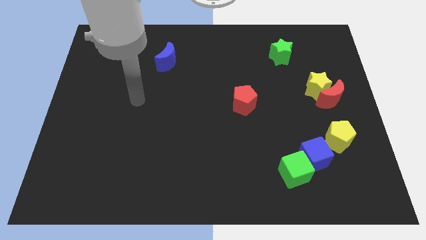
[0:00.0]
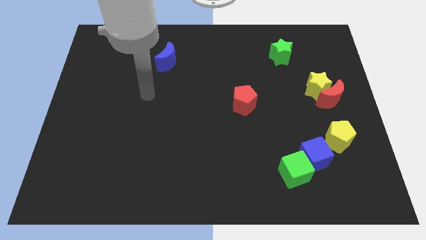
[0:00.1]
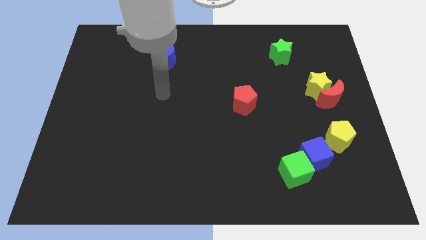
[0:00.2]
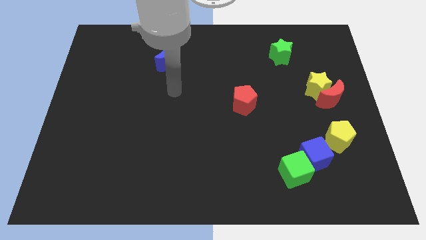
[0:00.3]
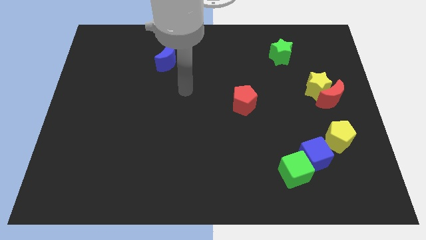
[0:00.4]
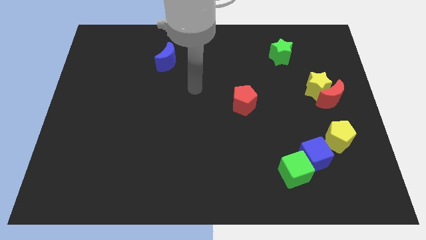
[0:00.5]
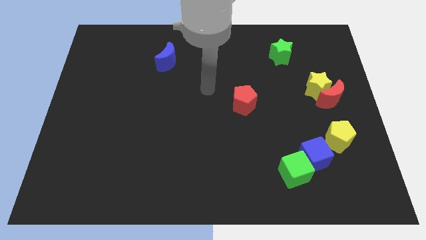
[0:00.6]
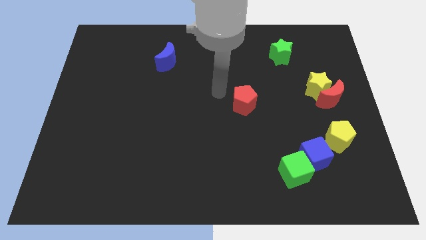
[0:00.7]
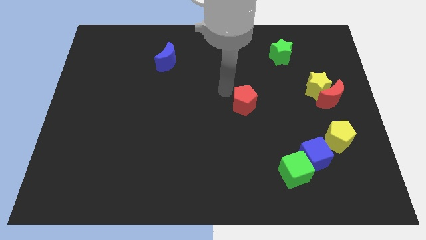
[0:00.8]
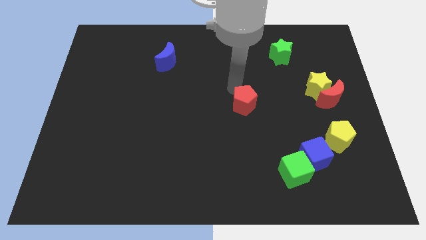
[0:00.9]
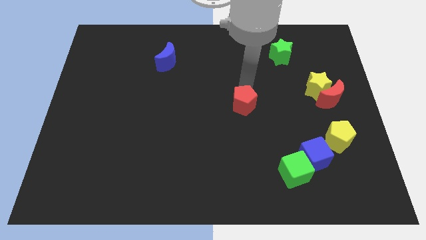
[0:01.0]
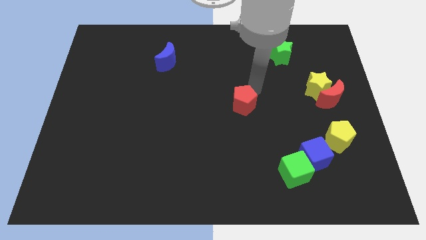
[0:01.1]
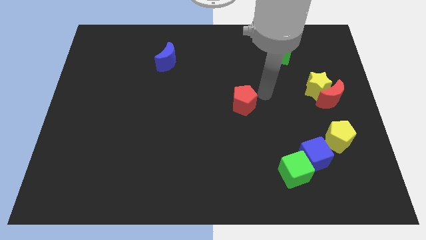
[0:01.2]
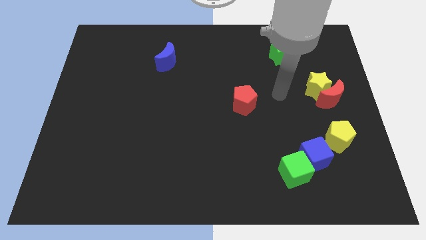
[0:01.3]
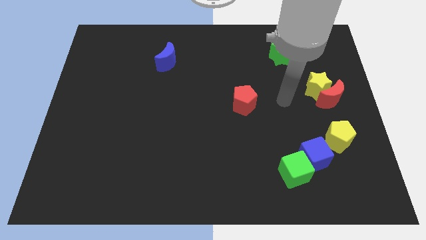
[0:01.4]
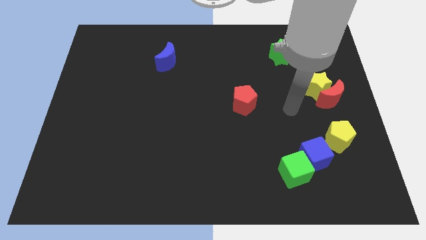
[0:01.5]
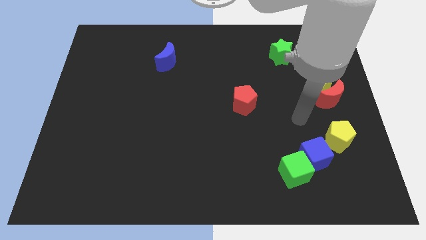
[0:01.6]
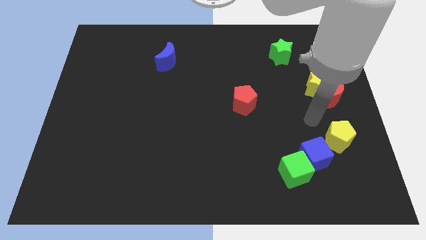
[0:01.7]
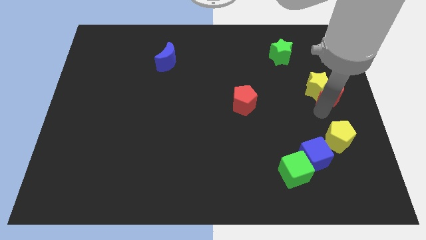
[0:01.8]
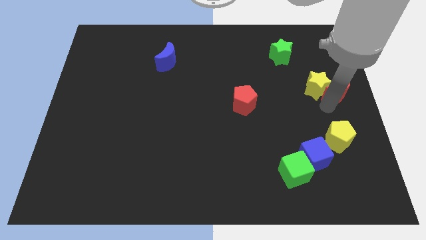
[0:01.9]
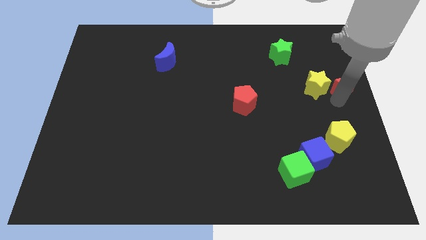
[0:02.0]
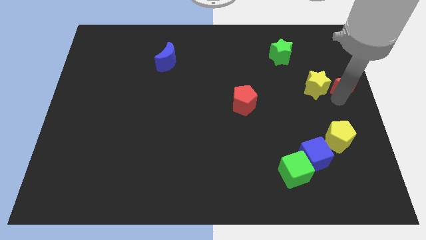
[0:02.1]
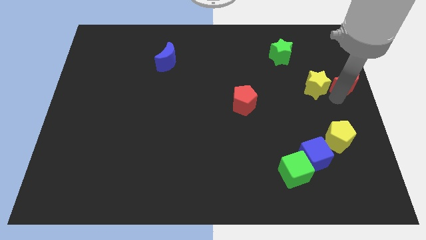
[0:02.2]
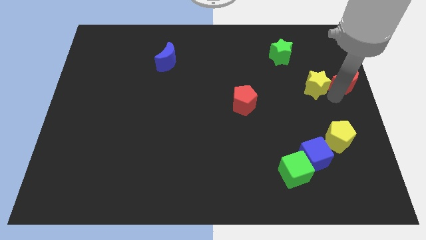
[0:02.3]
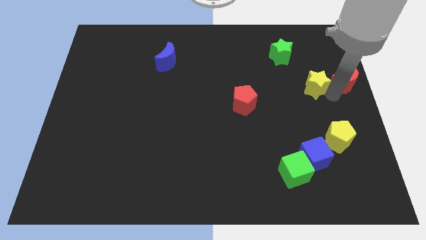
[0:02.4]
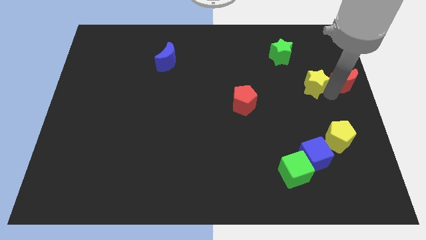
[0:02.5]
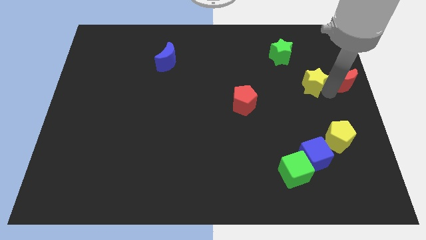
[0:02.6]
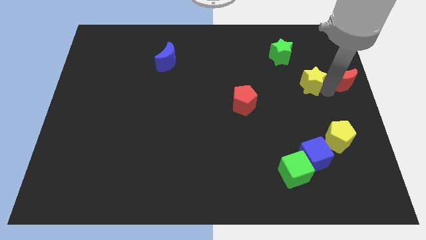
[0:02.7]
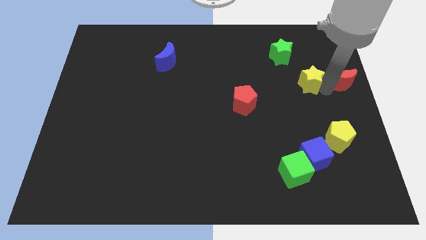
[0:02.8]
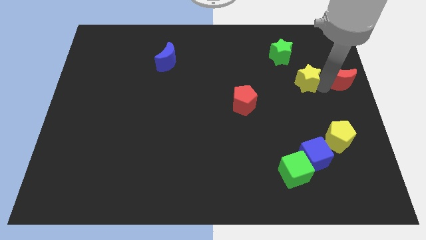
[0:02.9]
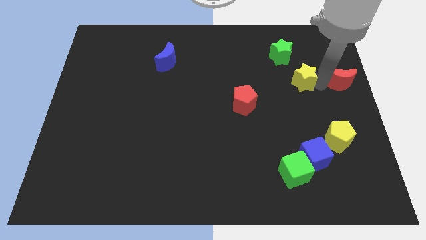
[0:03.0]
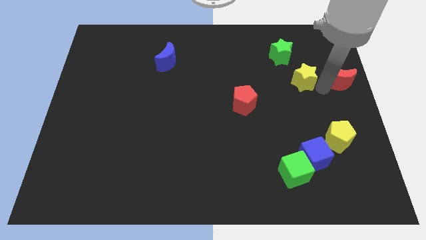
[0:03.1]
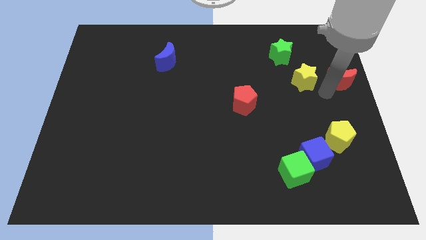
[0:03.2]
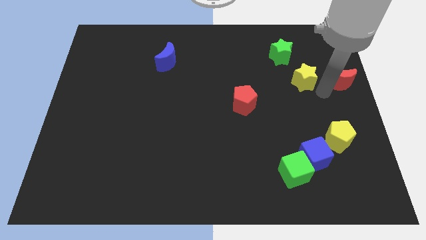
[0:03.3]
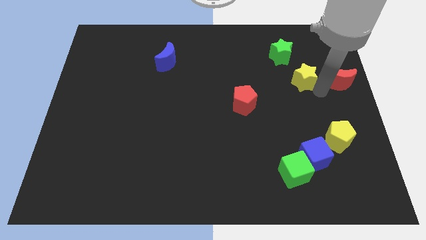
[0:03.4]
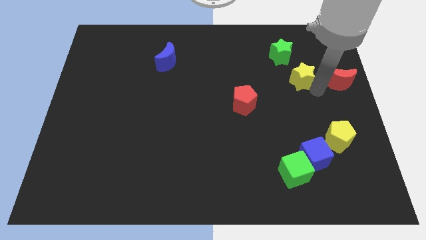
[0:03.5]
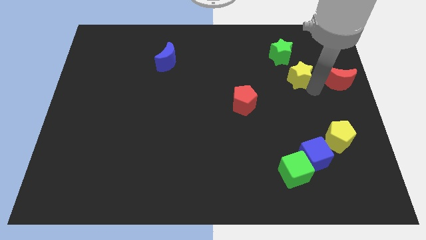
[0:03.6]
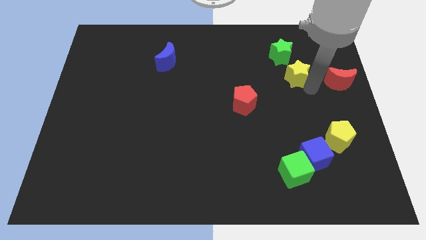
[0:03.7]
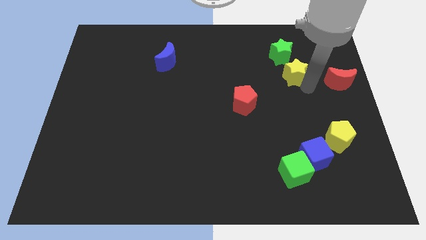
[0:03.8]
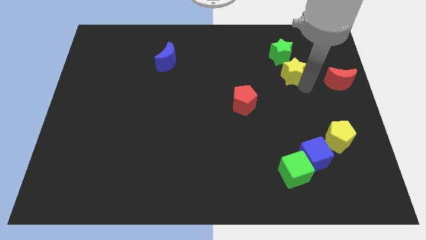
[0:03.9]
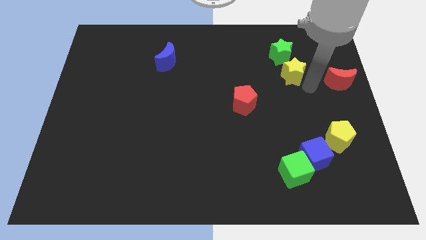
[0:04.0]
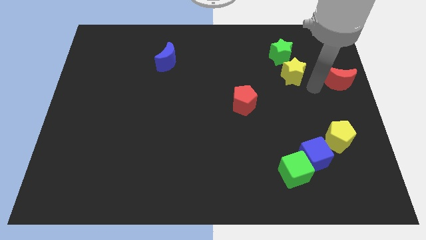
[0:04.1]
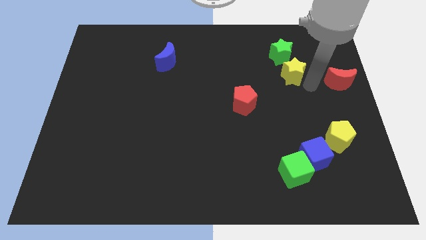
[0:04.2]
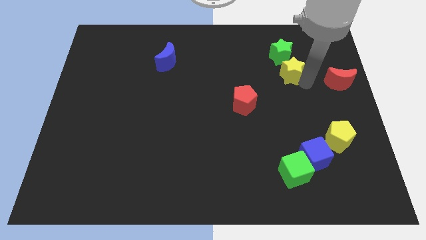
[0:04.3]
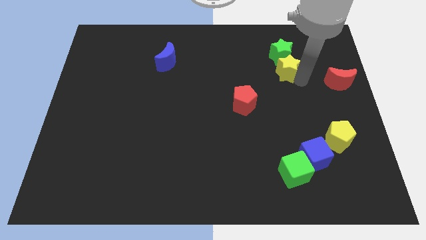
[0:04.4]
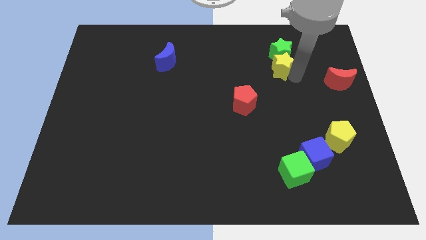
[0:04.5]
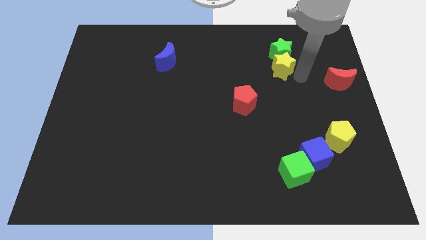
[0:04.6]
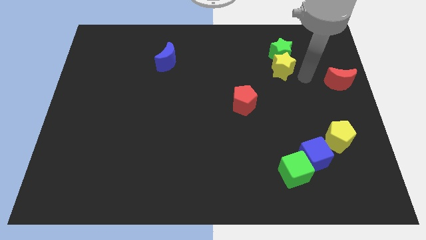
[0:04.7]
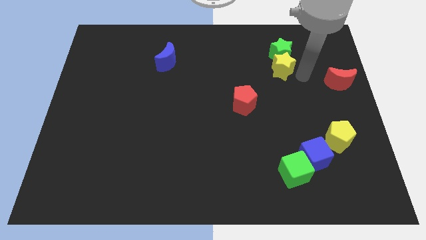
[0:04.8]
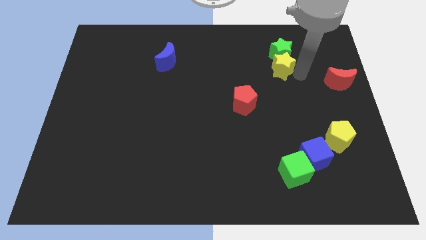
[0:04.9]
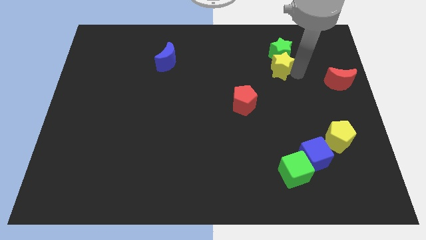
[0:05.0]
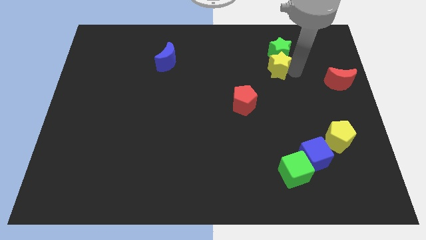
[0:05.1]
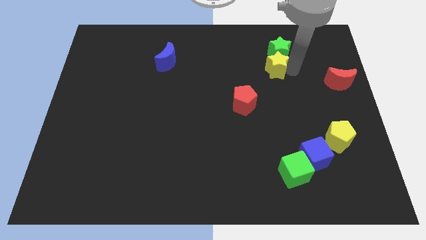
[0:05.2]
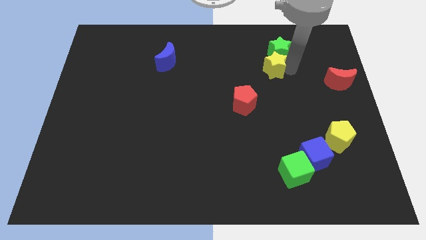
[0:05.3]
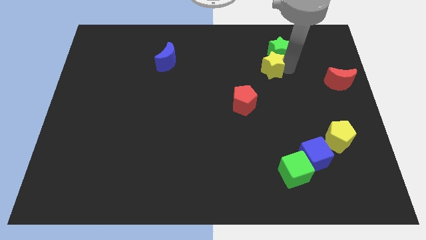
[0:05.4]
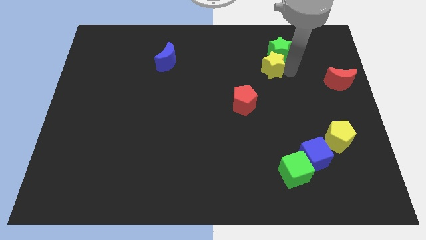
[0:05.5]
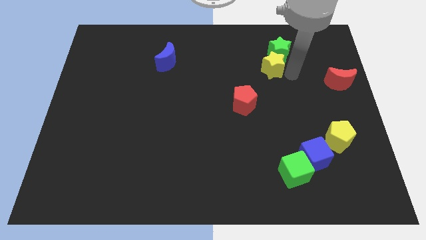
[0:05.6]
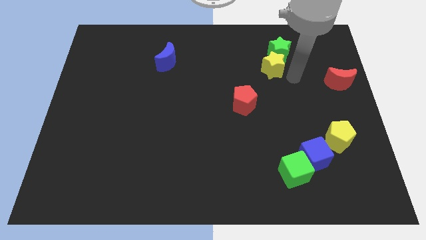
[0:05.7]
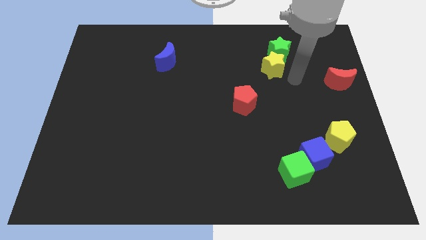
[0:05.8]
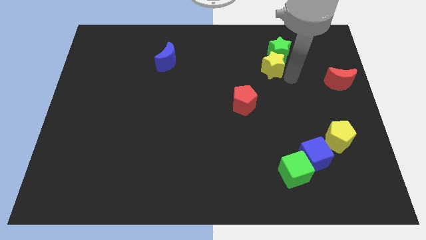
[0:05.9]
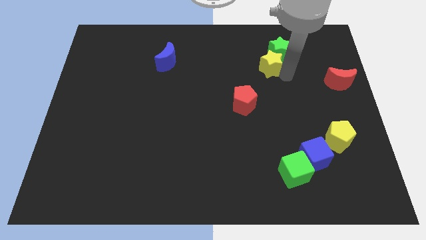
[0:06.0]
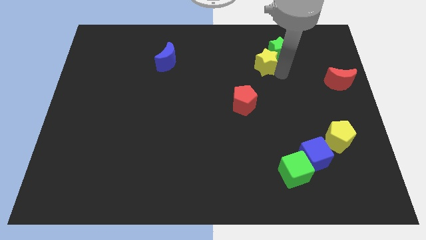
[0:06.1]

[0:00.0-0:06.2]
slide the yellow star just left of the green star

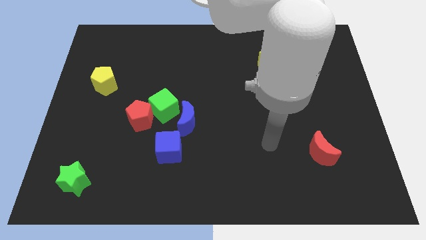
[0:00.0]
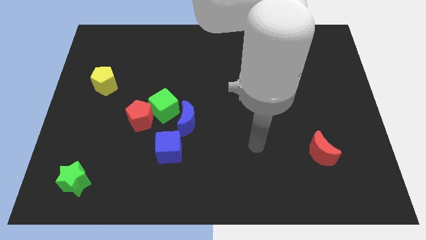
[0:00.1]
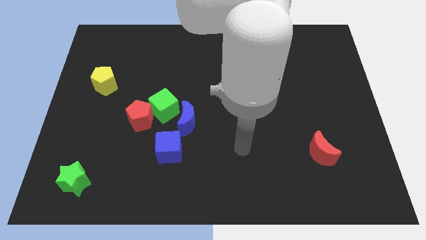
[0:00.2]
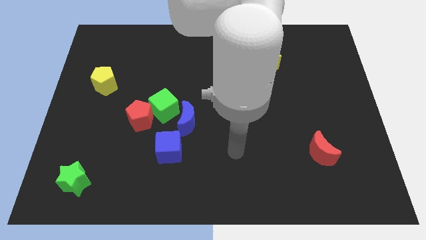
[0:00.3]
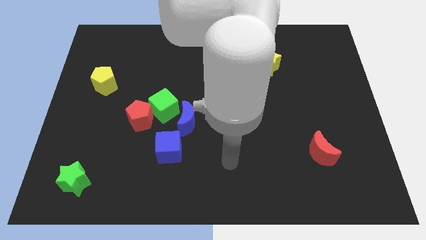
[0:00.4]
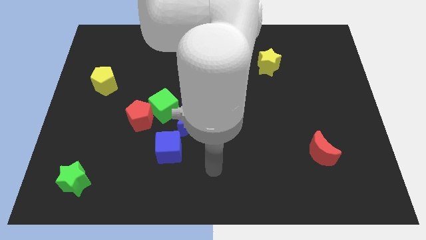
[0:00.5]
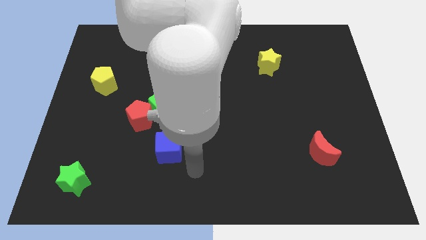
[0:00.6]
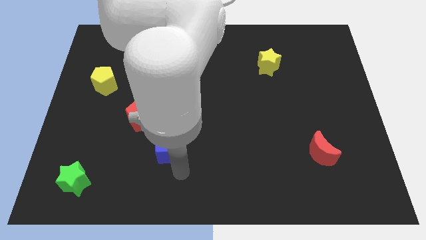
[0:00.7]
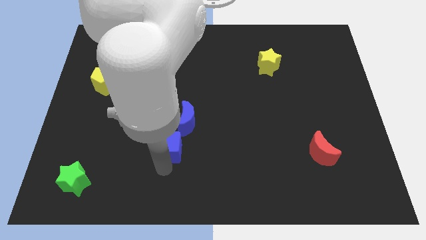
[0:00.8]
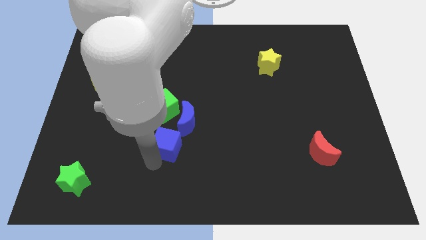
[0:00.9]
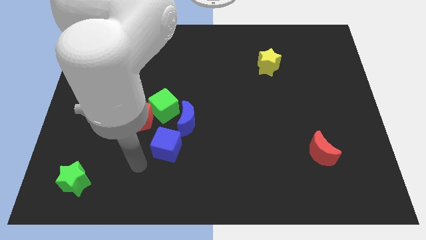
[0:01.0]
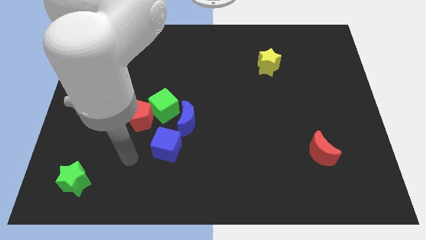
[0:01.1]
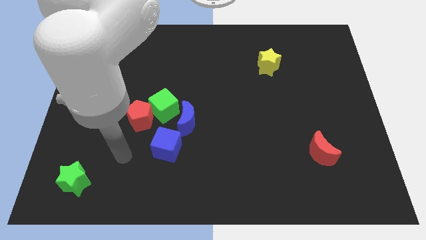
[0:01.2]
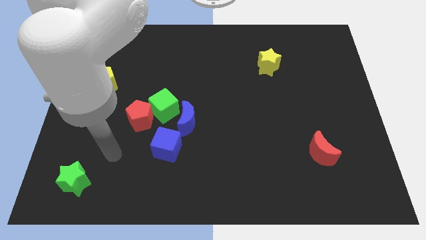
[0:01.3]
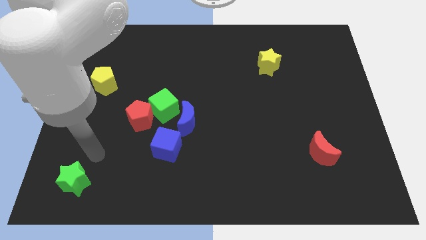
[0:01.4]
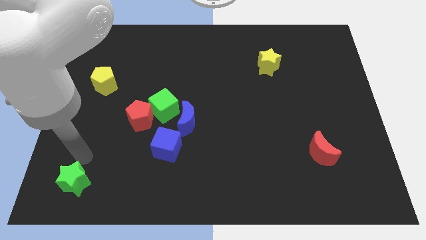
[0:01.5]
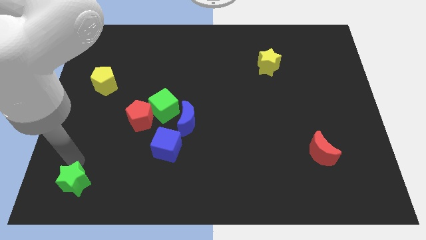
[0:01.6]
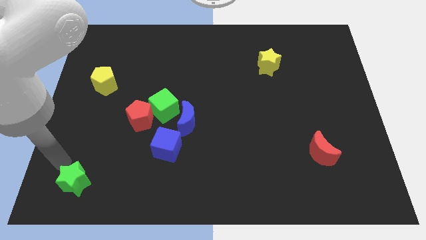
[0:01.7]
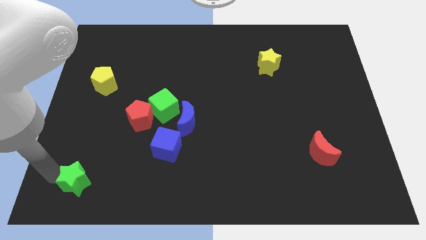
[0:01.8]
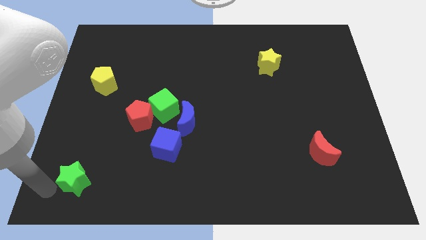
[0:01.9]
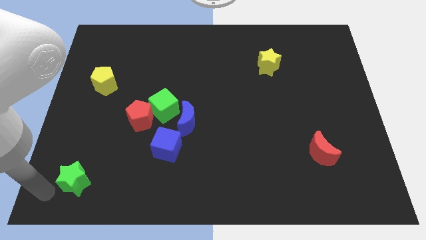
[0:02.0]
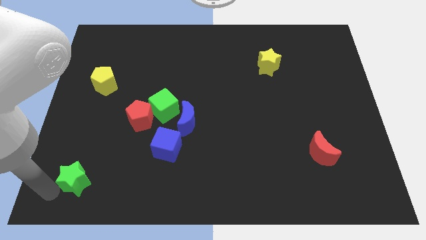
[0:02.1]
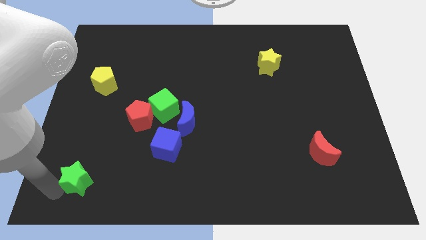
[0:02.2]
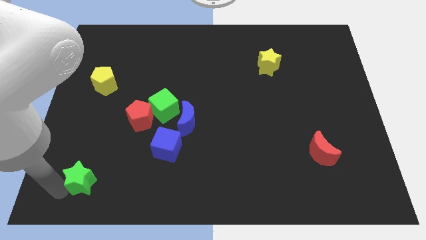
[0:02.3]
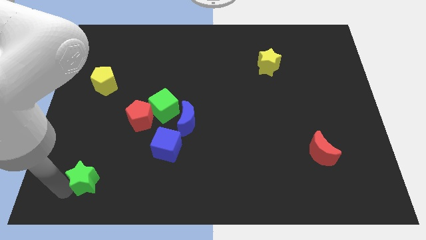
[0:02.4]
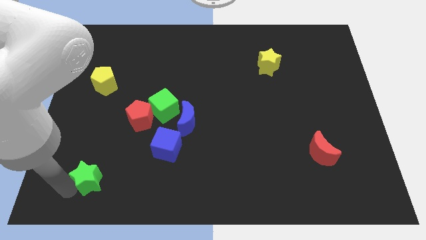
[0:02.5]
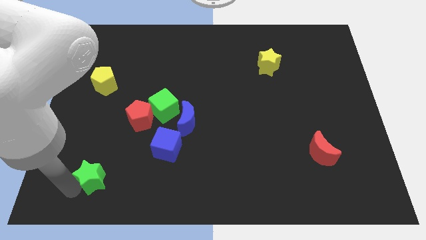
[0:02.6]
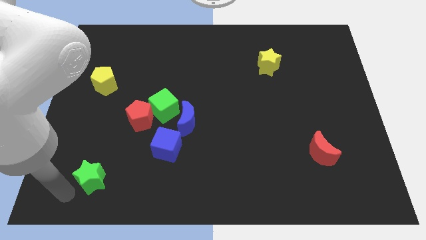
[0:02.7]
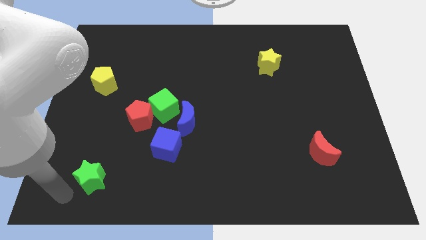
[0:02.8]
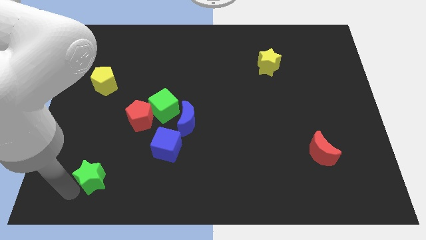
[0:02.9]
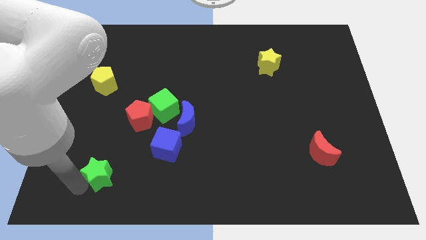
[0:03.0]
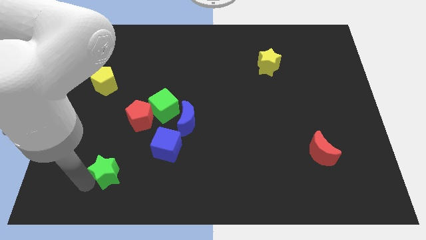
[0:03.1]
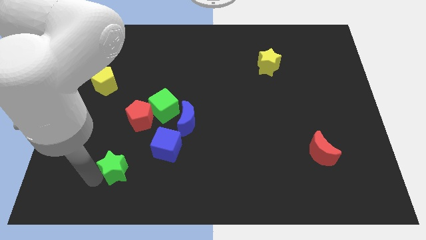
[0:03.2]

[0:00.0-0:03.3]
move the green star to the bottom left side of the blue cube
